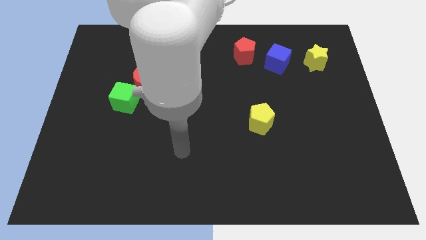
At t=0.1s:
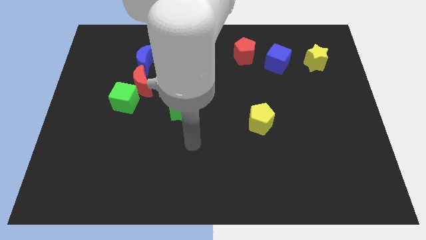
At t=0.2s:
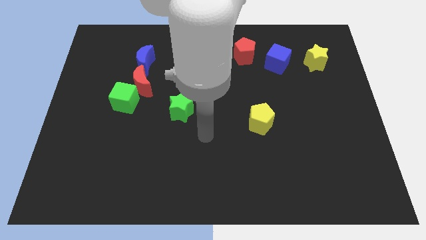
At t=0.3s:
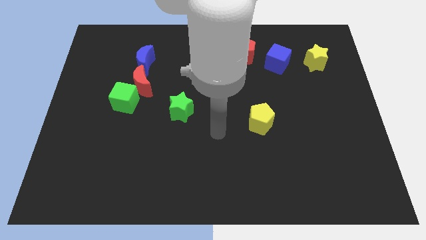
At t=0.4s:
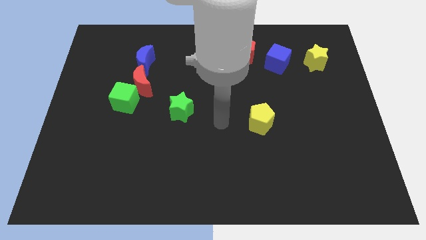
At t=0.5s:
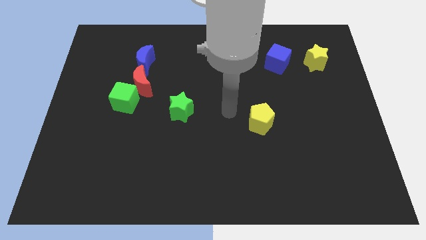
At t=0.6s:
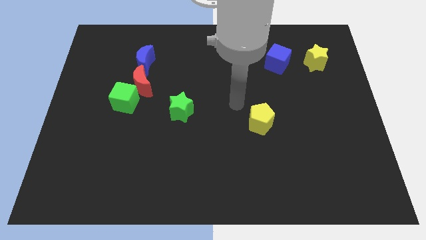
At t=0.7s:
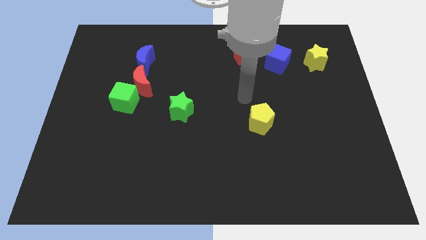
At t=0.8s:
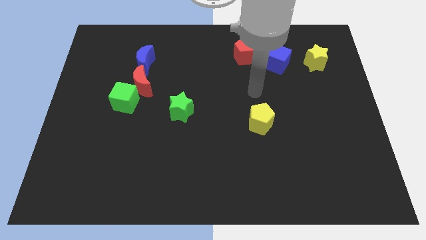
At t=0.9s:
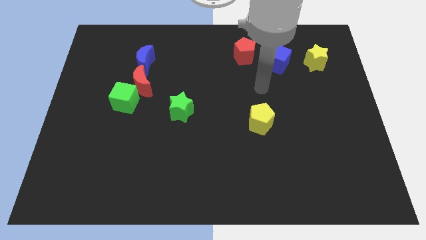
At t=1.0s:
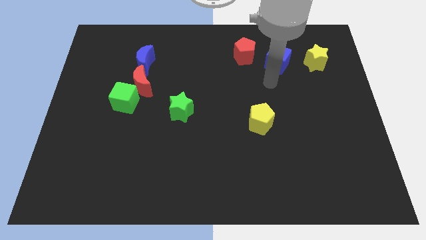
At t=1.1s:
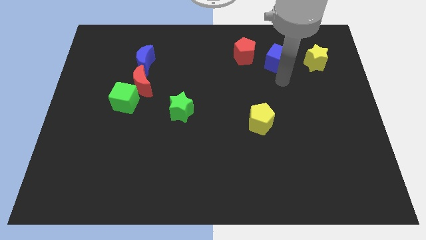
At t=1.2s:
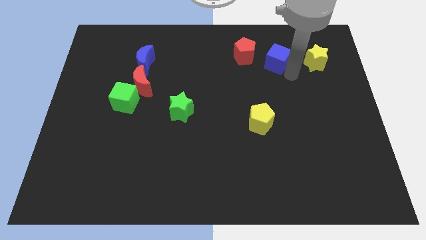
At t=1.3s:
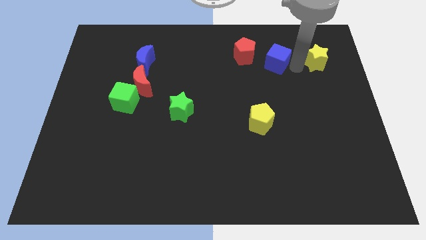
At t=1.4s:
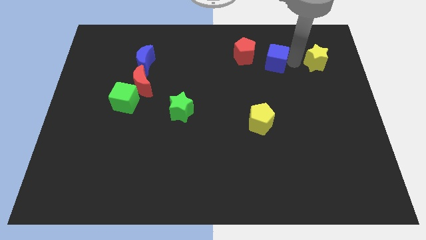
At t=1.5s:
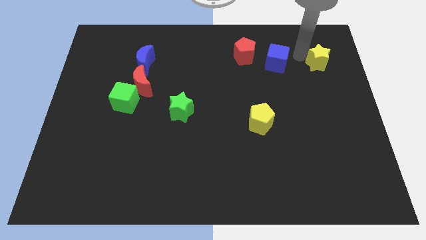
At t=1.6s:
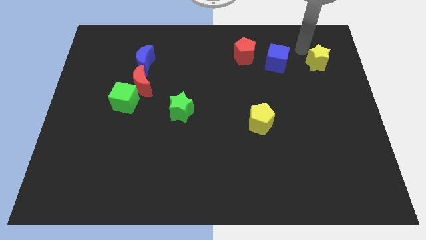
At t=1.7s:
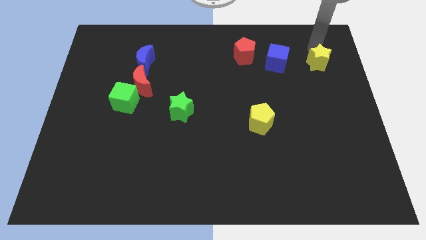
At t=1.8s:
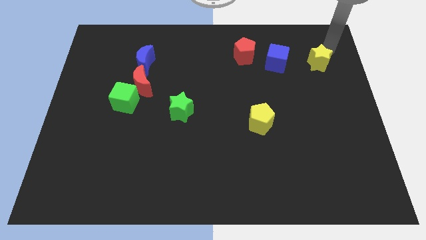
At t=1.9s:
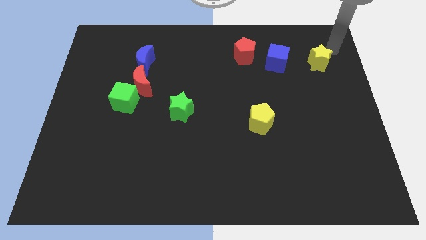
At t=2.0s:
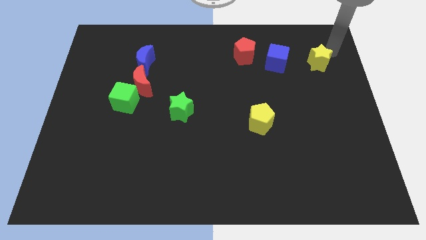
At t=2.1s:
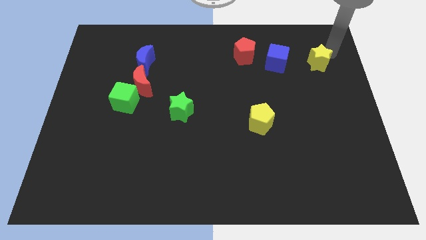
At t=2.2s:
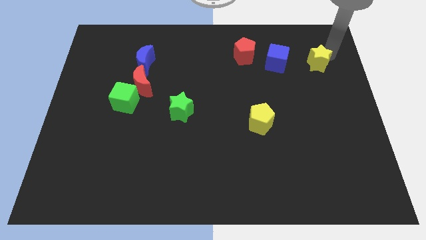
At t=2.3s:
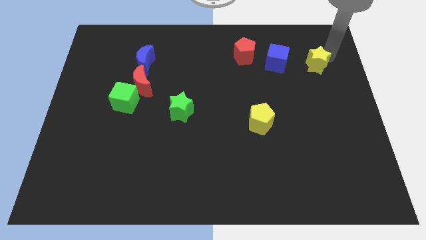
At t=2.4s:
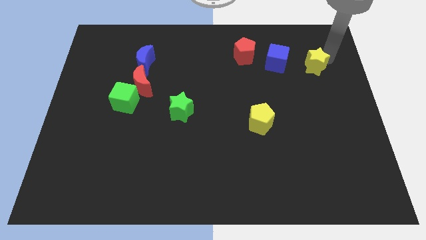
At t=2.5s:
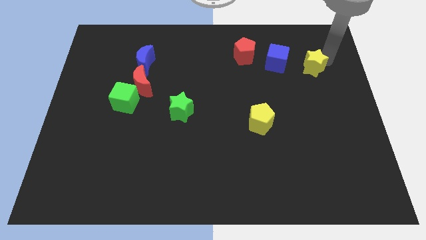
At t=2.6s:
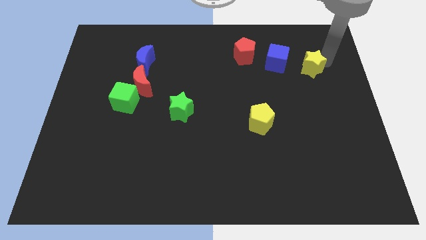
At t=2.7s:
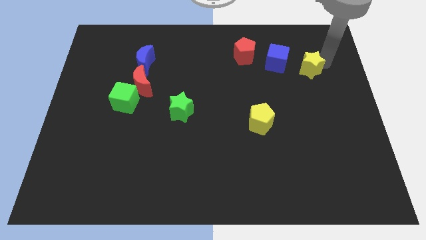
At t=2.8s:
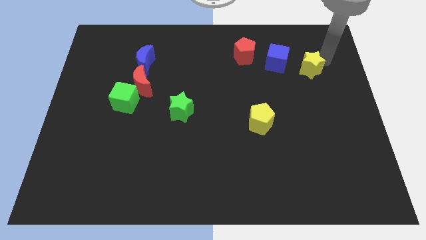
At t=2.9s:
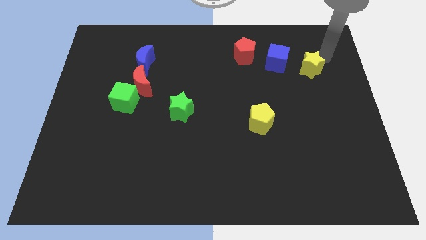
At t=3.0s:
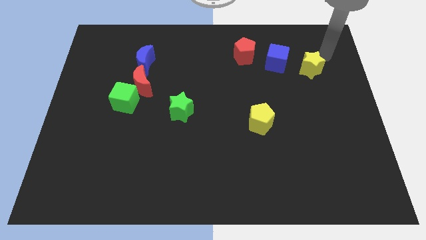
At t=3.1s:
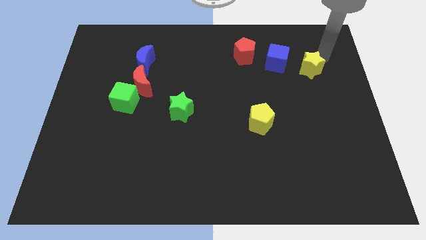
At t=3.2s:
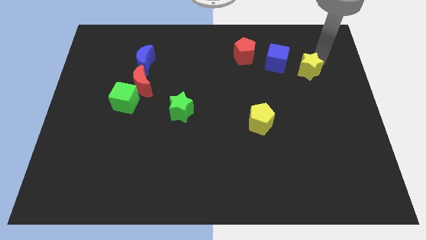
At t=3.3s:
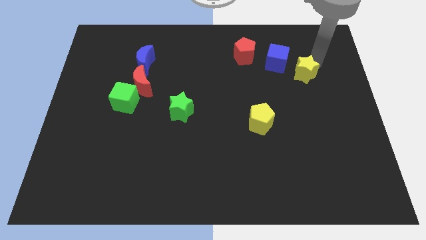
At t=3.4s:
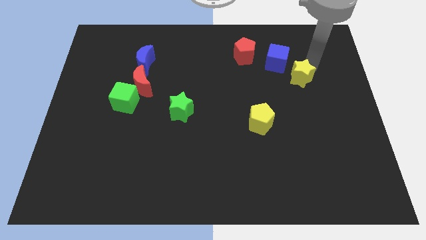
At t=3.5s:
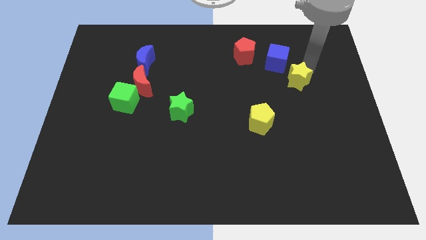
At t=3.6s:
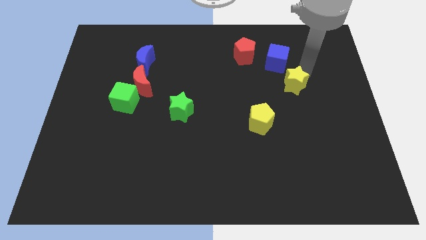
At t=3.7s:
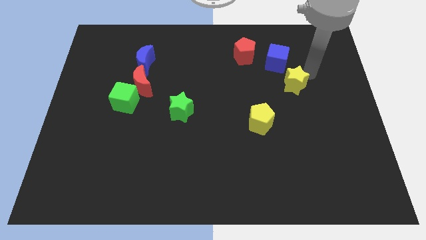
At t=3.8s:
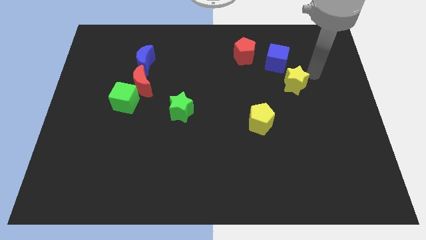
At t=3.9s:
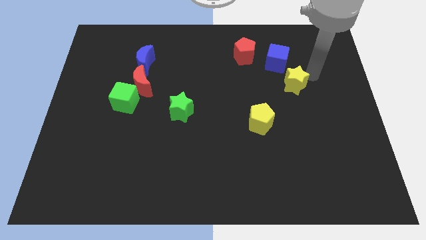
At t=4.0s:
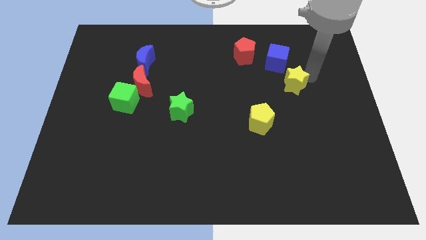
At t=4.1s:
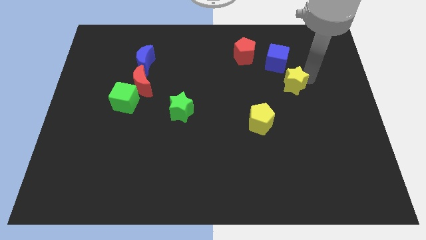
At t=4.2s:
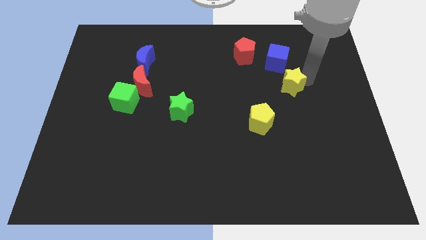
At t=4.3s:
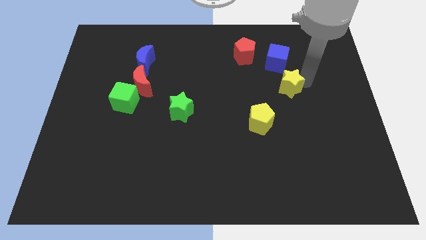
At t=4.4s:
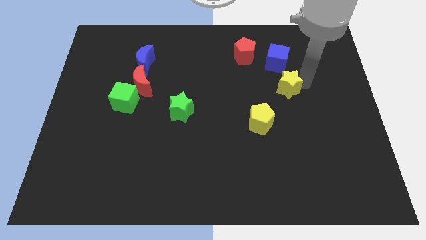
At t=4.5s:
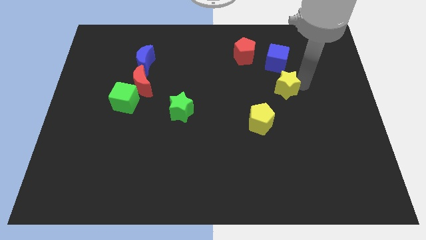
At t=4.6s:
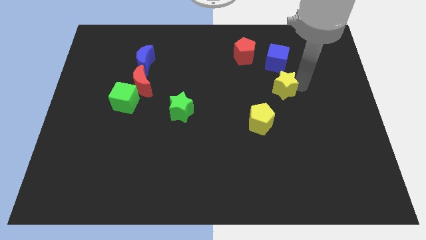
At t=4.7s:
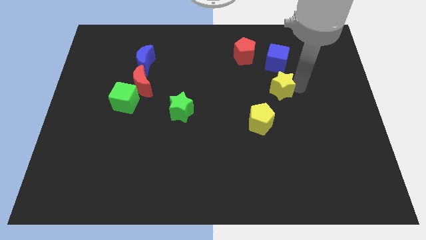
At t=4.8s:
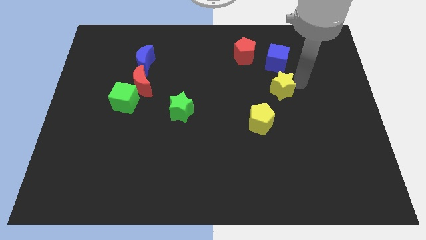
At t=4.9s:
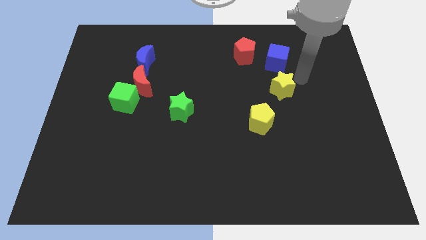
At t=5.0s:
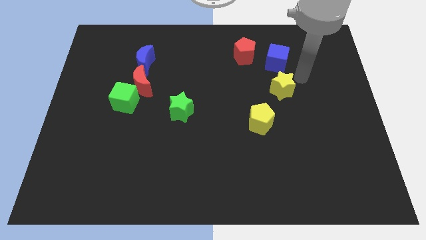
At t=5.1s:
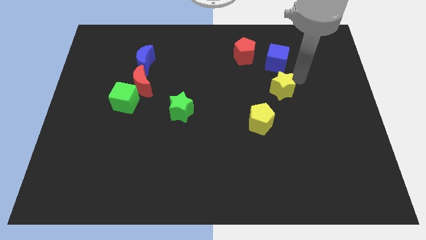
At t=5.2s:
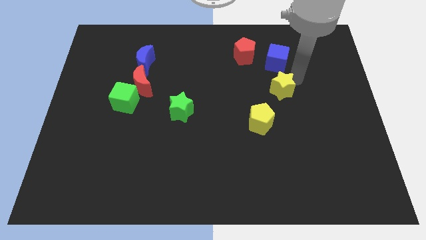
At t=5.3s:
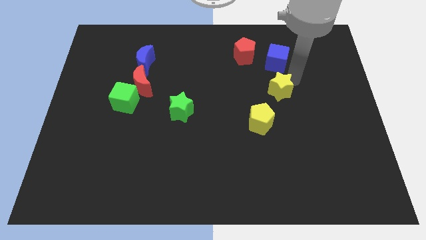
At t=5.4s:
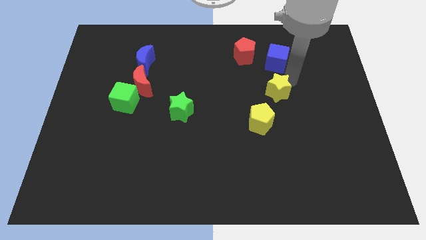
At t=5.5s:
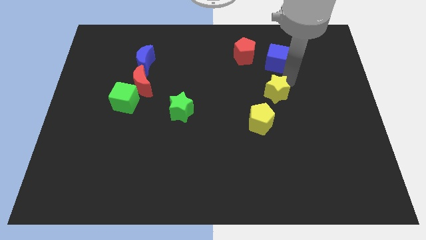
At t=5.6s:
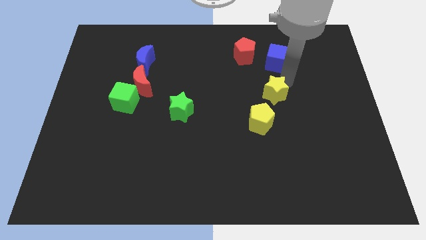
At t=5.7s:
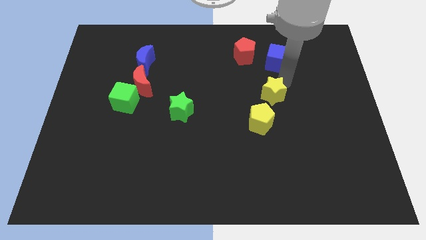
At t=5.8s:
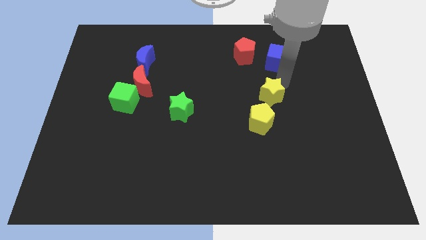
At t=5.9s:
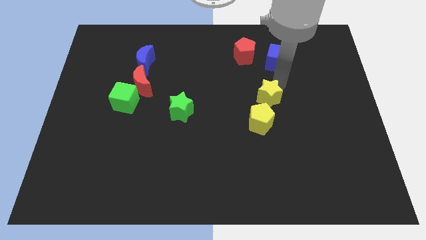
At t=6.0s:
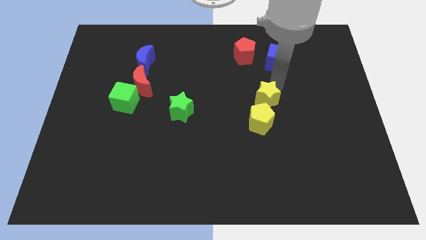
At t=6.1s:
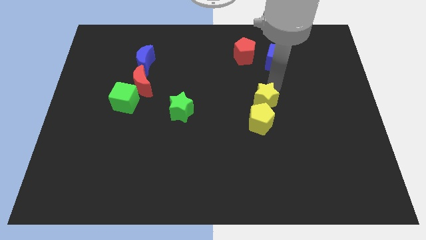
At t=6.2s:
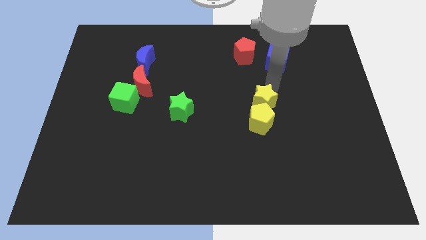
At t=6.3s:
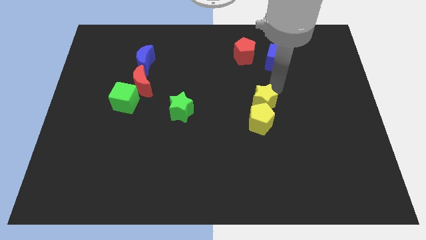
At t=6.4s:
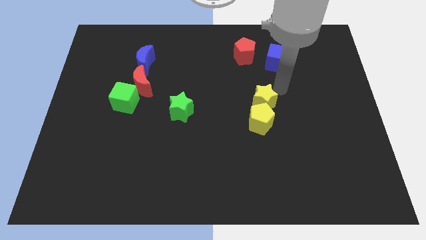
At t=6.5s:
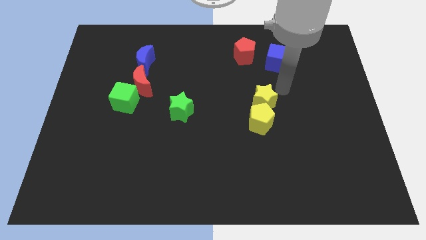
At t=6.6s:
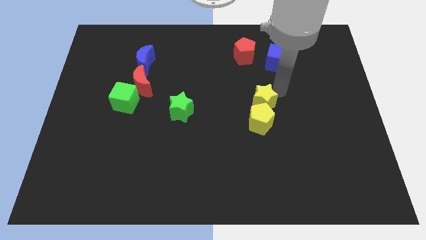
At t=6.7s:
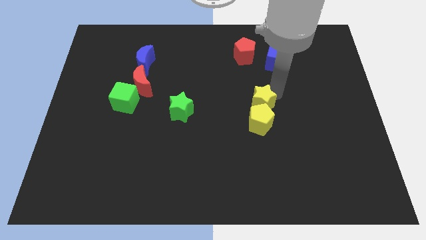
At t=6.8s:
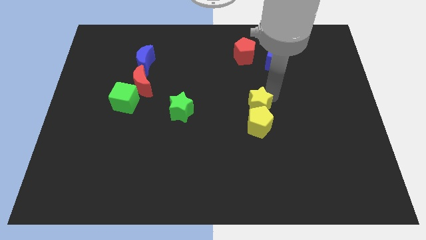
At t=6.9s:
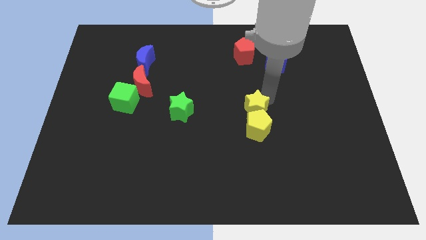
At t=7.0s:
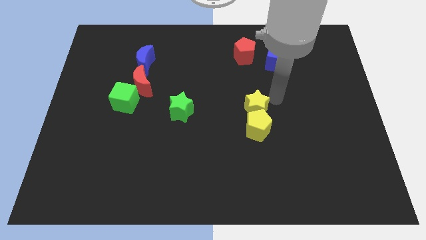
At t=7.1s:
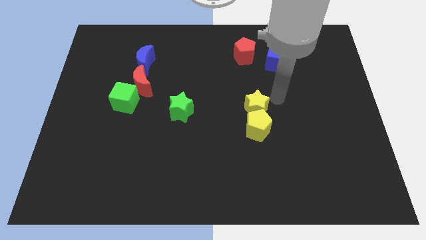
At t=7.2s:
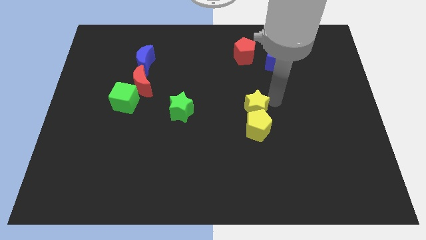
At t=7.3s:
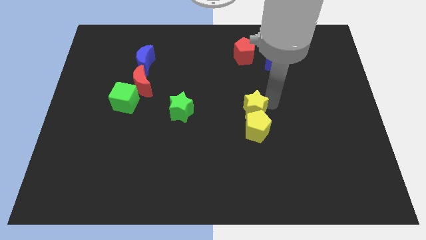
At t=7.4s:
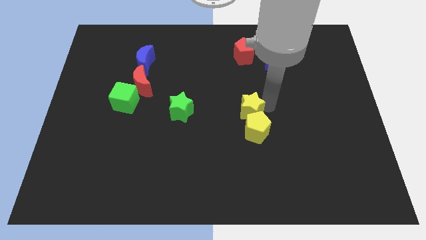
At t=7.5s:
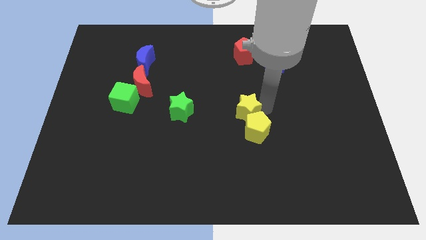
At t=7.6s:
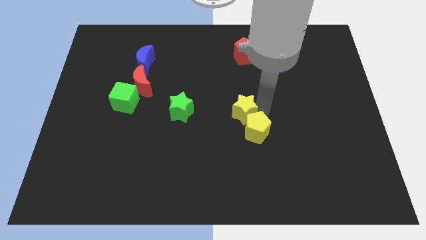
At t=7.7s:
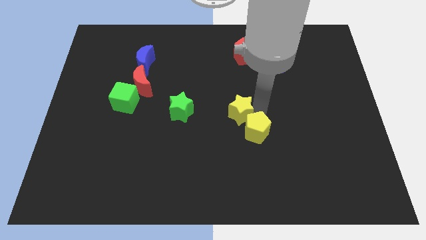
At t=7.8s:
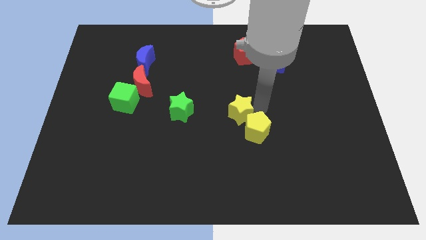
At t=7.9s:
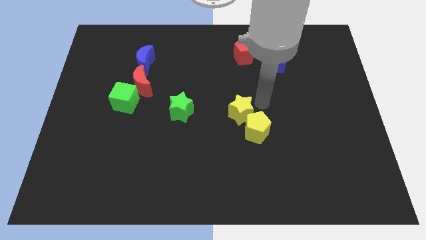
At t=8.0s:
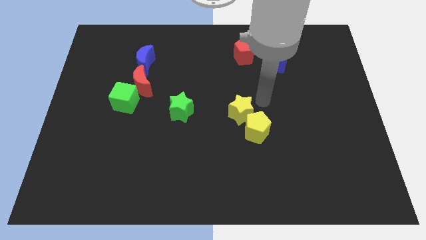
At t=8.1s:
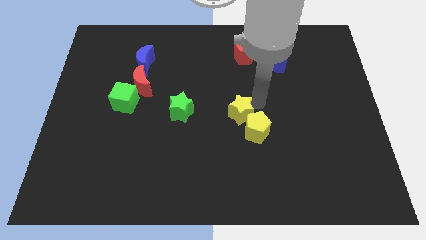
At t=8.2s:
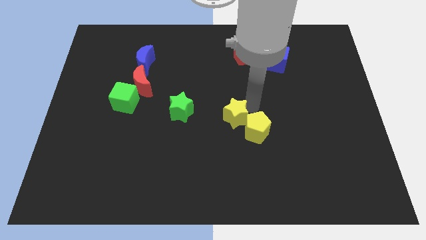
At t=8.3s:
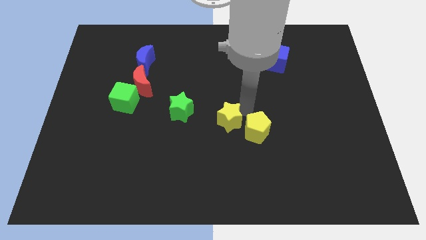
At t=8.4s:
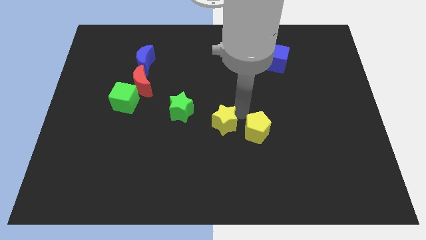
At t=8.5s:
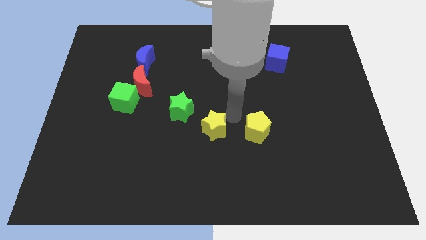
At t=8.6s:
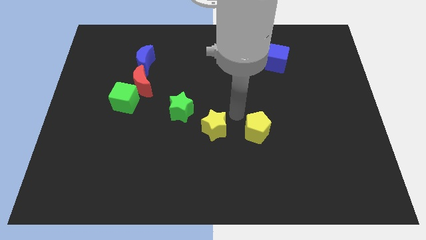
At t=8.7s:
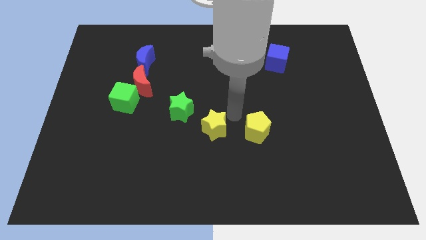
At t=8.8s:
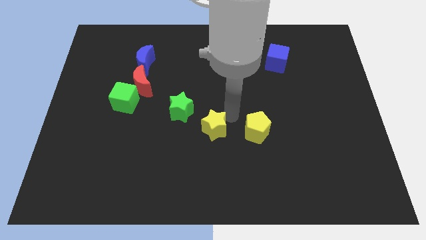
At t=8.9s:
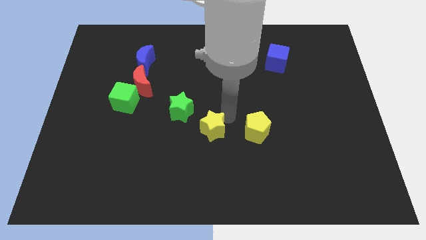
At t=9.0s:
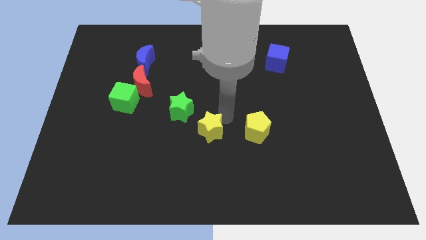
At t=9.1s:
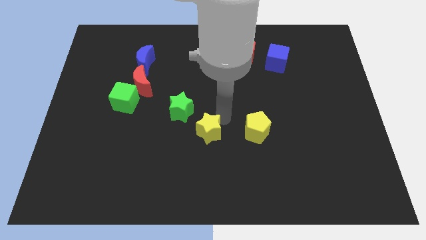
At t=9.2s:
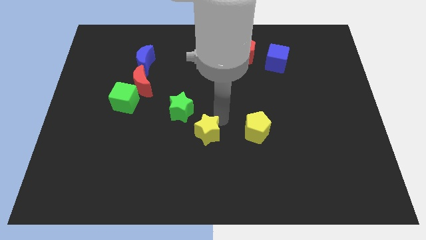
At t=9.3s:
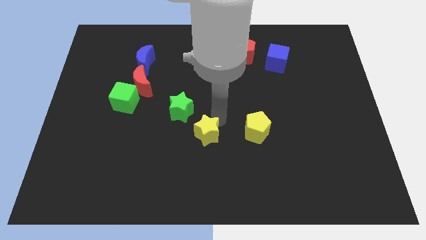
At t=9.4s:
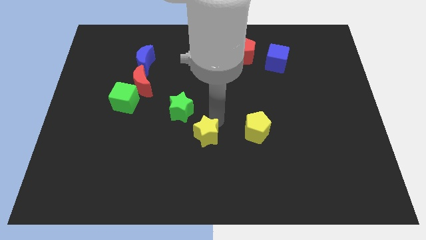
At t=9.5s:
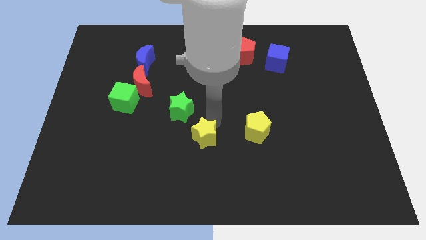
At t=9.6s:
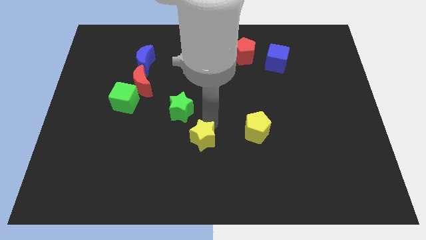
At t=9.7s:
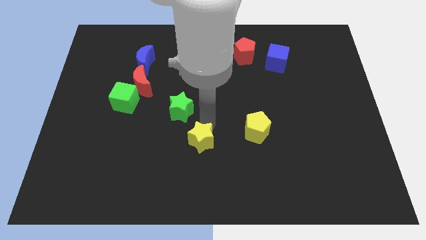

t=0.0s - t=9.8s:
slide the yellow star to the bottom side of the green star
